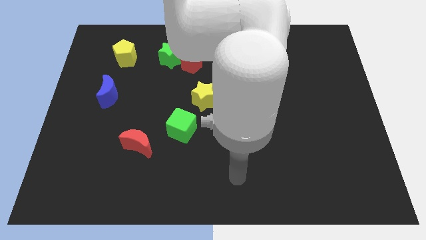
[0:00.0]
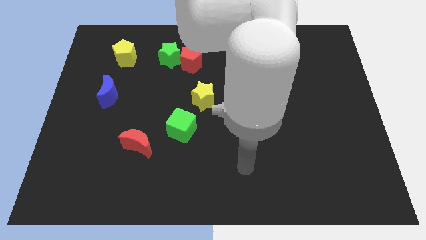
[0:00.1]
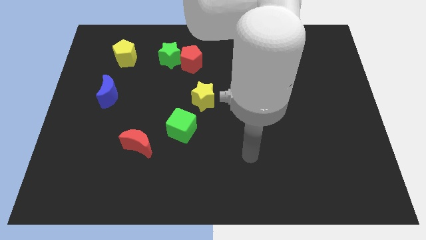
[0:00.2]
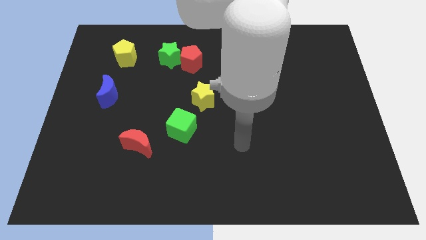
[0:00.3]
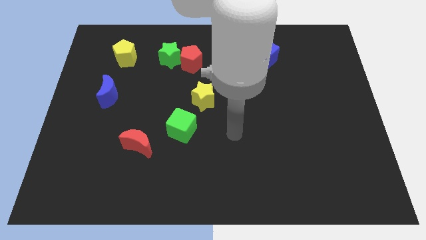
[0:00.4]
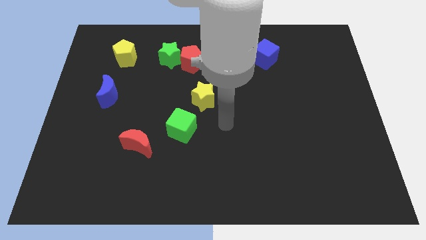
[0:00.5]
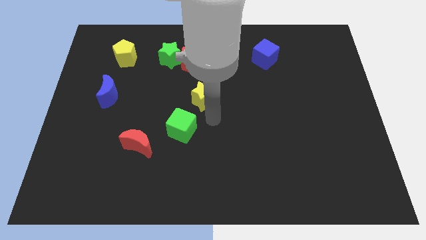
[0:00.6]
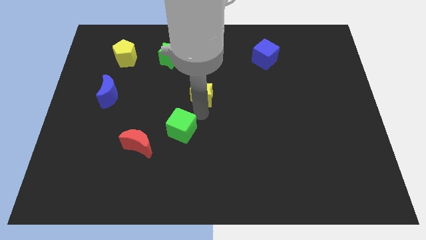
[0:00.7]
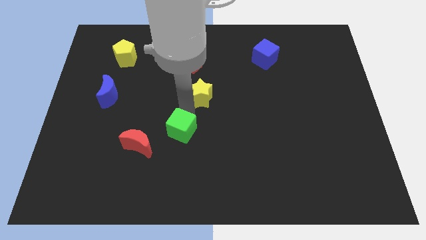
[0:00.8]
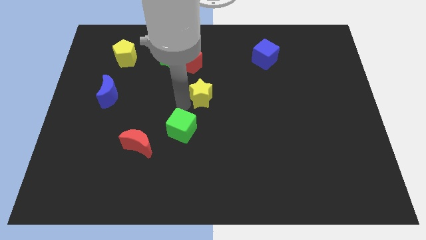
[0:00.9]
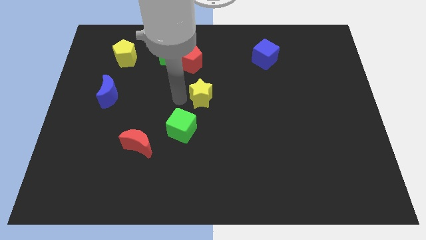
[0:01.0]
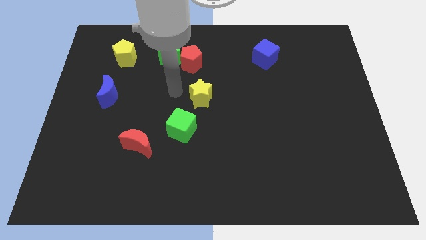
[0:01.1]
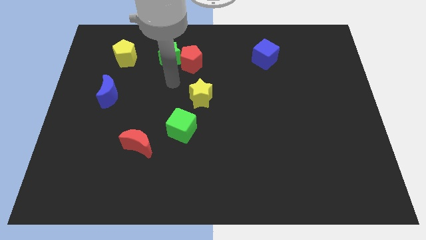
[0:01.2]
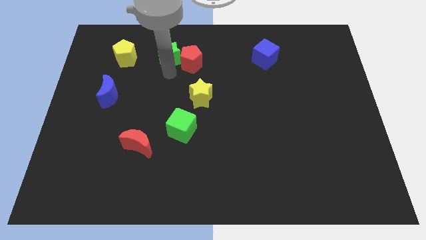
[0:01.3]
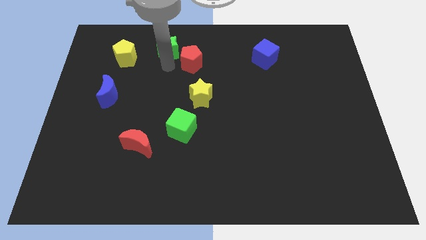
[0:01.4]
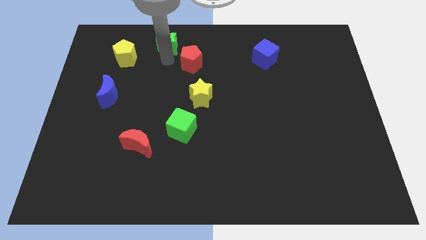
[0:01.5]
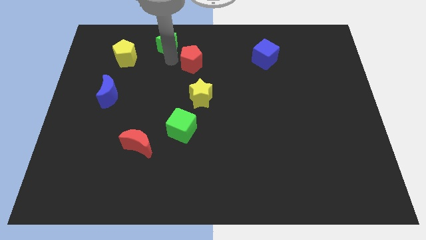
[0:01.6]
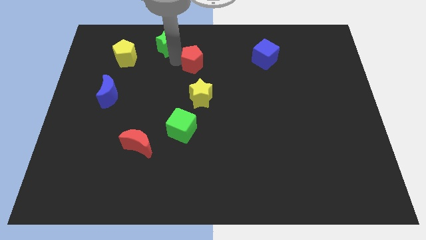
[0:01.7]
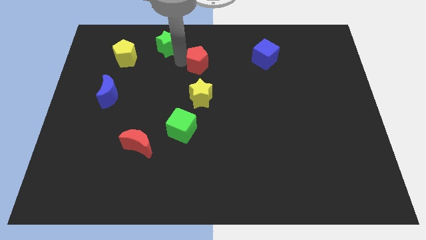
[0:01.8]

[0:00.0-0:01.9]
move the red pentagon away from the green star

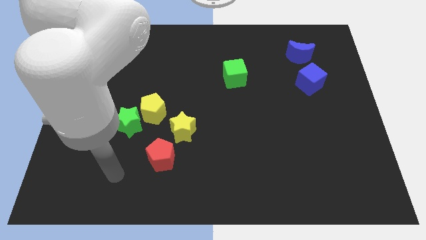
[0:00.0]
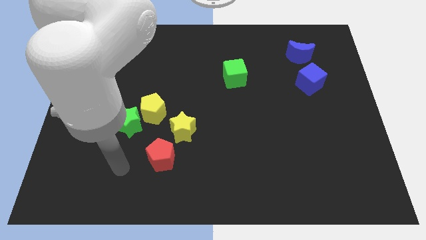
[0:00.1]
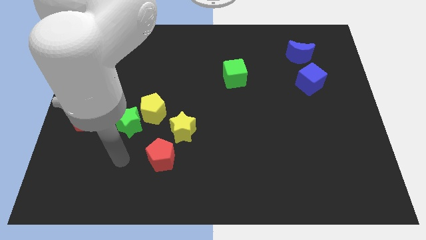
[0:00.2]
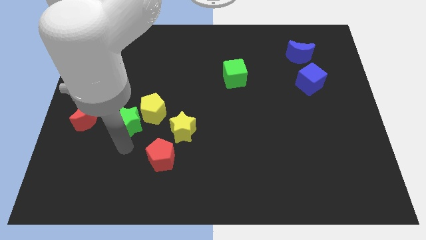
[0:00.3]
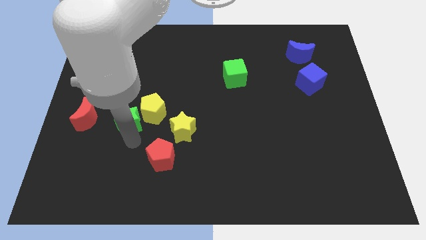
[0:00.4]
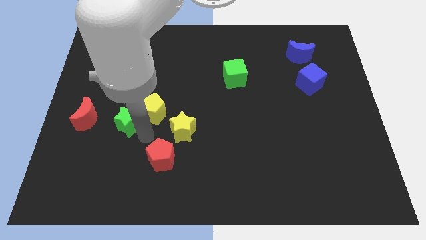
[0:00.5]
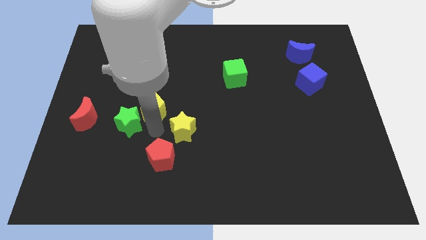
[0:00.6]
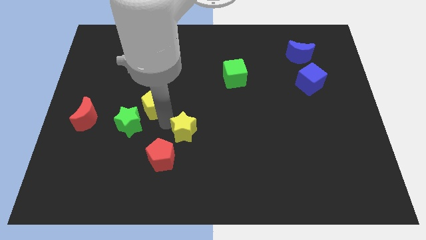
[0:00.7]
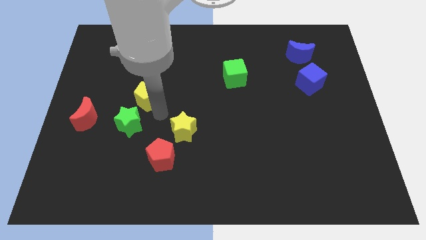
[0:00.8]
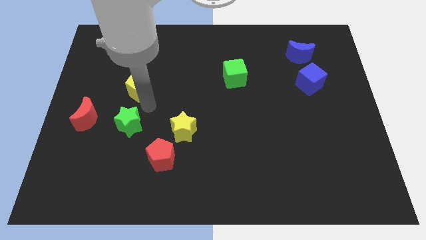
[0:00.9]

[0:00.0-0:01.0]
pull the green star apart from the yellow pentagon

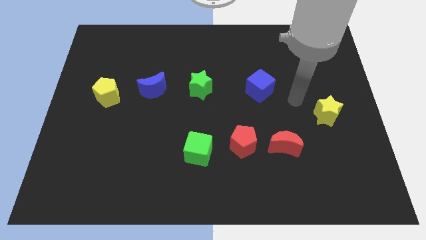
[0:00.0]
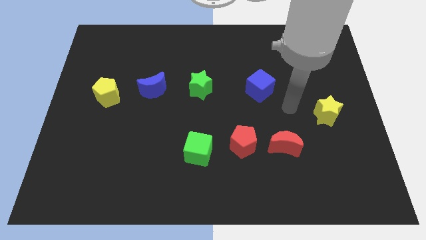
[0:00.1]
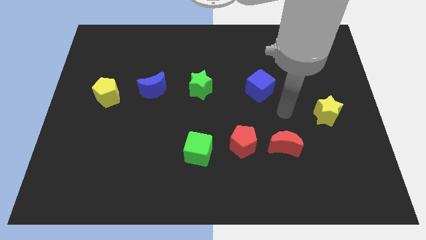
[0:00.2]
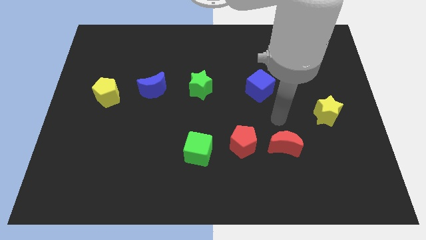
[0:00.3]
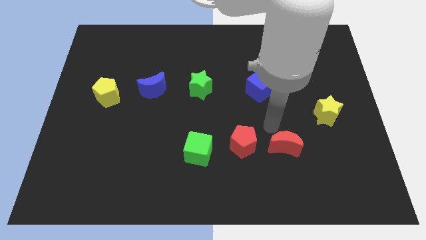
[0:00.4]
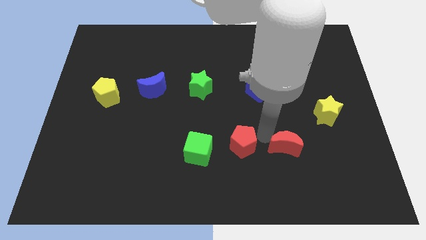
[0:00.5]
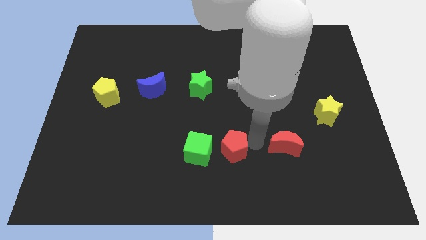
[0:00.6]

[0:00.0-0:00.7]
separate the red moon from the red pentagon

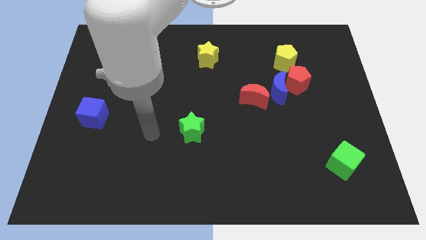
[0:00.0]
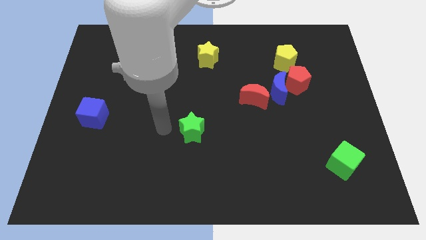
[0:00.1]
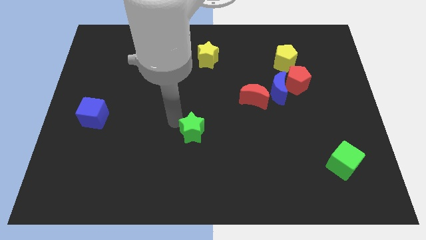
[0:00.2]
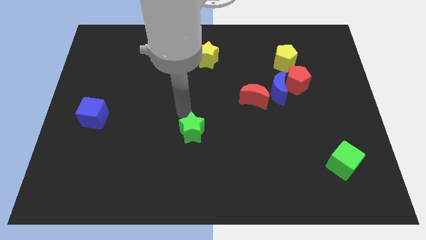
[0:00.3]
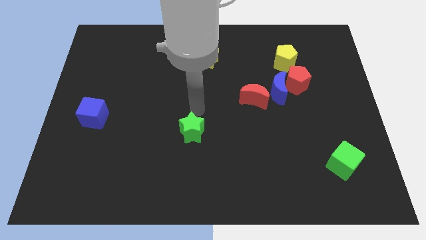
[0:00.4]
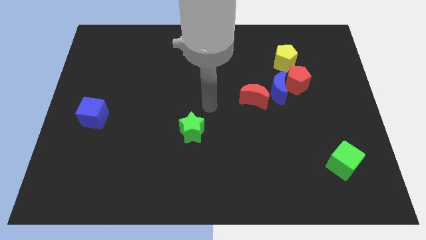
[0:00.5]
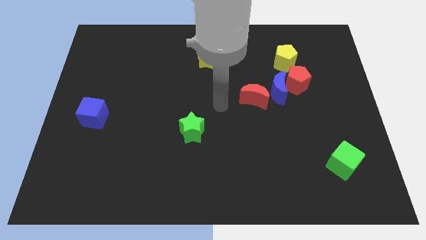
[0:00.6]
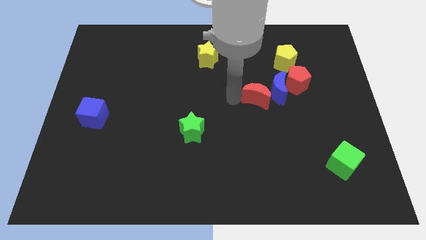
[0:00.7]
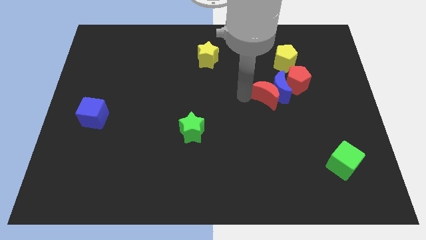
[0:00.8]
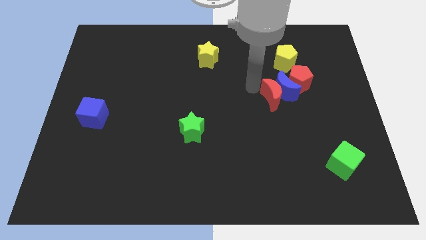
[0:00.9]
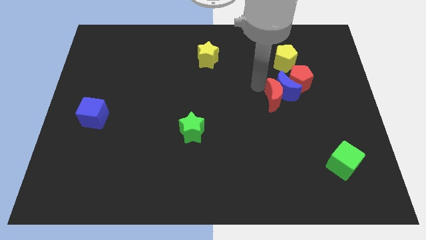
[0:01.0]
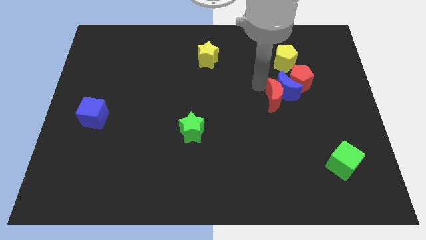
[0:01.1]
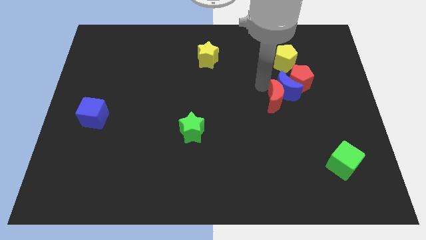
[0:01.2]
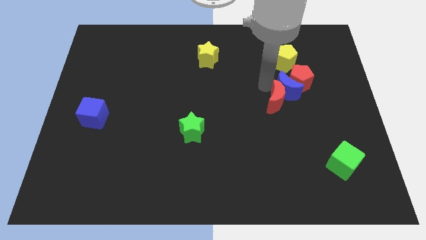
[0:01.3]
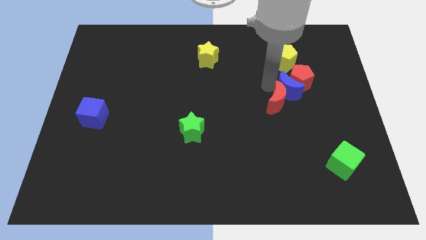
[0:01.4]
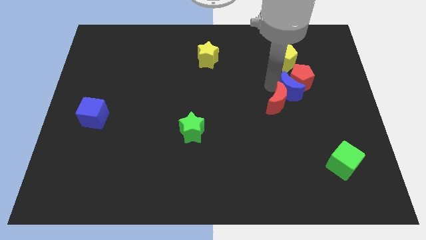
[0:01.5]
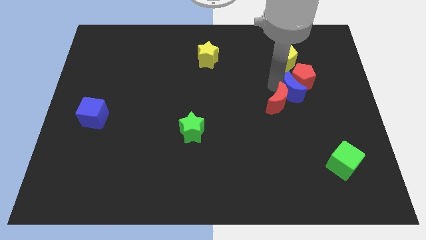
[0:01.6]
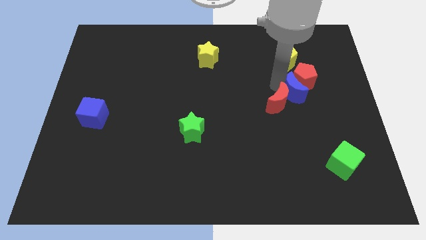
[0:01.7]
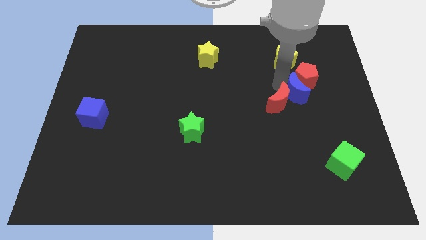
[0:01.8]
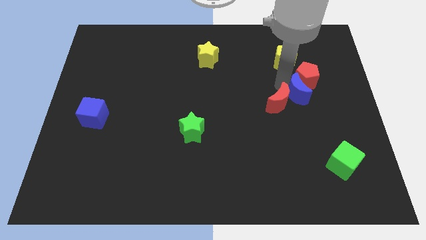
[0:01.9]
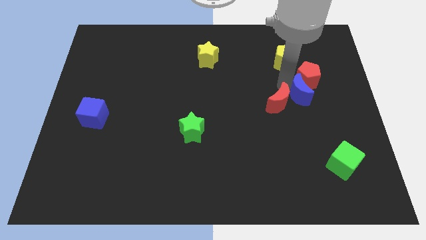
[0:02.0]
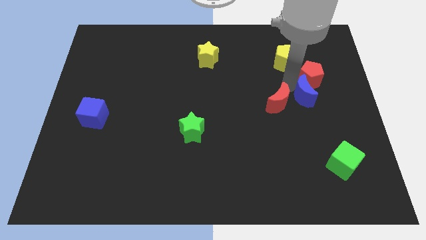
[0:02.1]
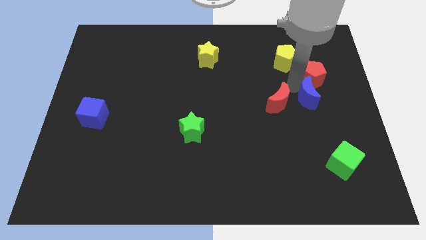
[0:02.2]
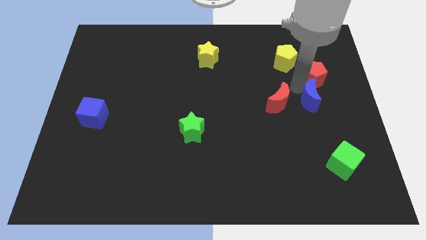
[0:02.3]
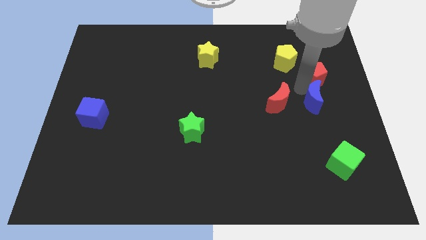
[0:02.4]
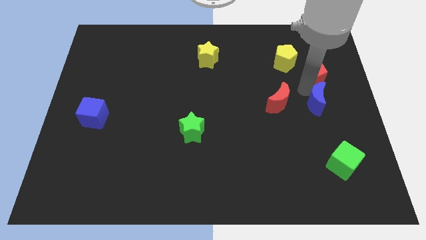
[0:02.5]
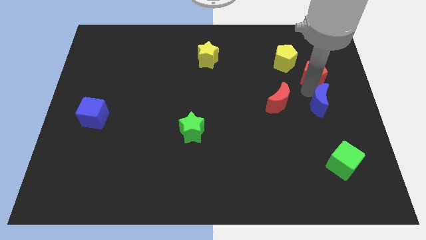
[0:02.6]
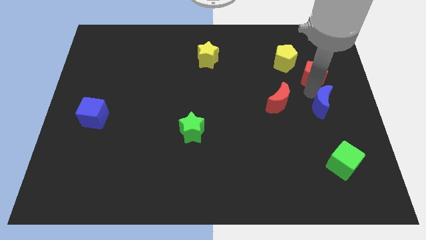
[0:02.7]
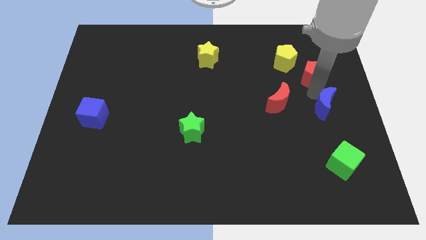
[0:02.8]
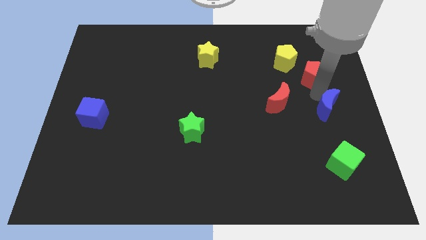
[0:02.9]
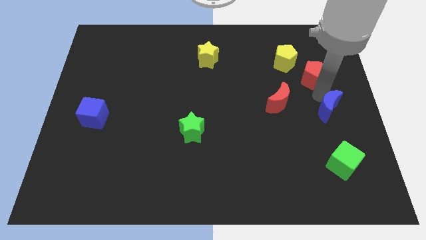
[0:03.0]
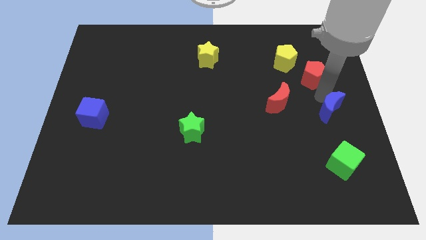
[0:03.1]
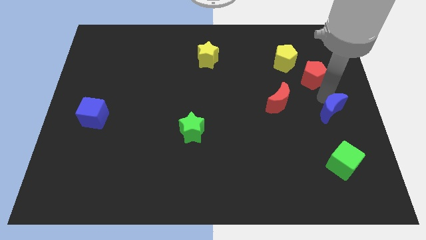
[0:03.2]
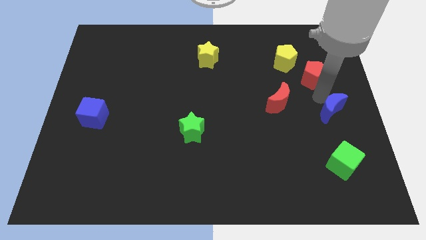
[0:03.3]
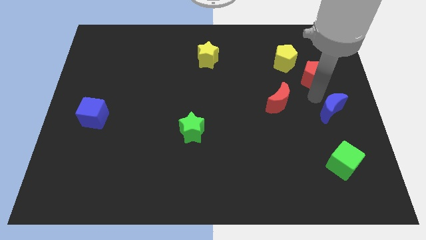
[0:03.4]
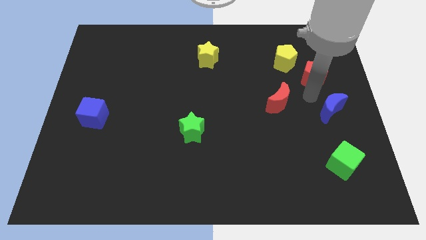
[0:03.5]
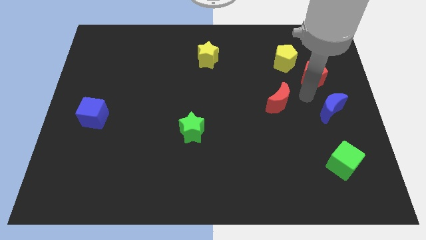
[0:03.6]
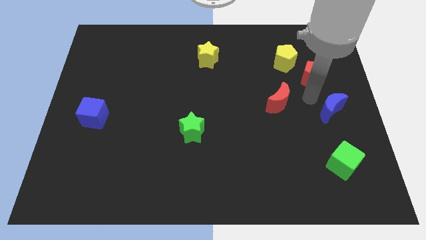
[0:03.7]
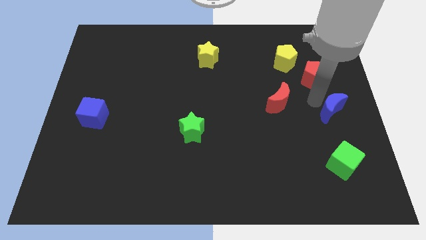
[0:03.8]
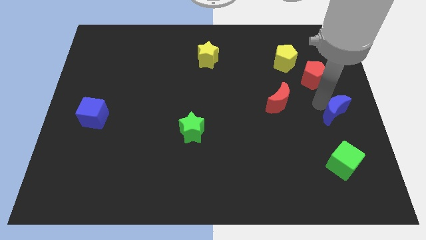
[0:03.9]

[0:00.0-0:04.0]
pull the blue moon apart from the red pentagon and red moon

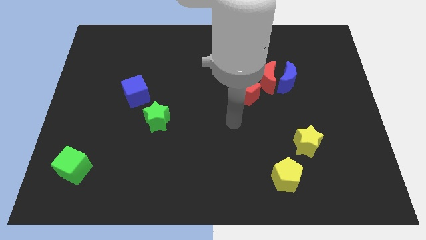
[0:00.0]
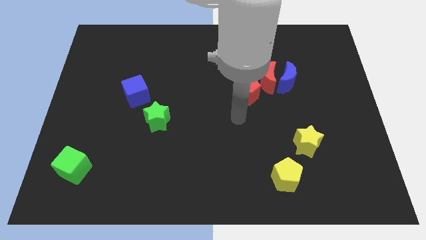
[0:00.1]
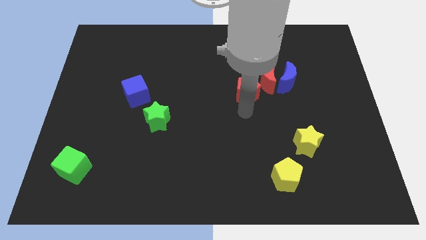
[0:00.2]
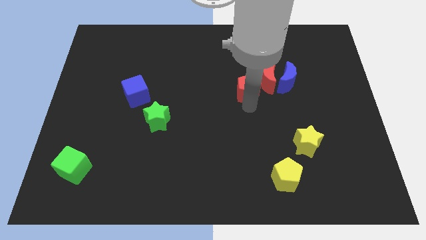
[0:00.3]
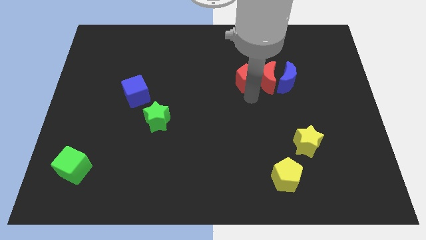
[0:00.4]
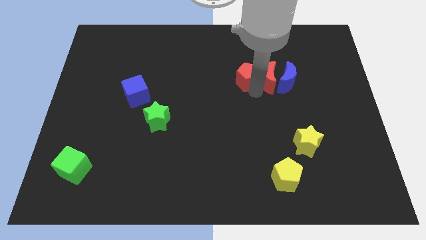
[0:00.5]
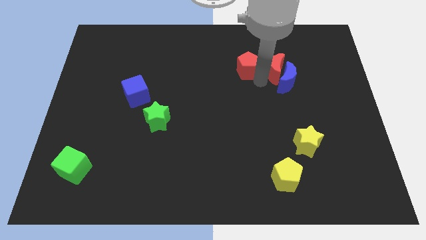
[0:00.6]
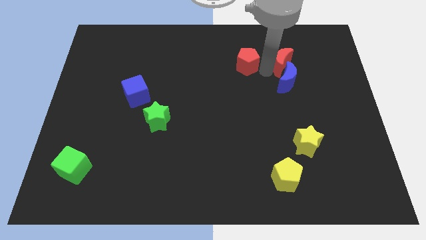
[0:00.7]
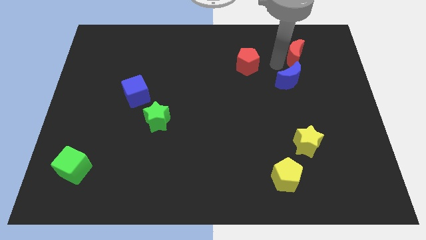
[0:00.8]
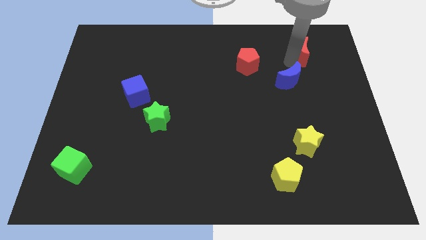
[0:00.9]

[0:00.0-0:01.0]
separate the blue moon from the red moon

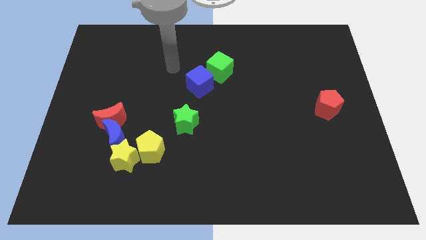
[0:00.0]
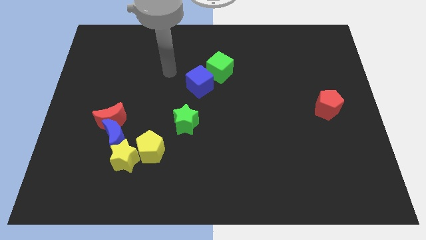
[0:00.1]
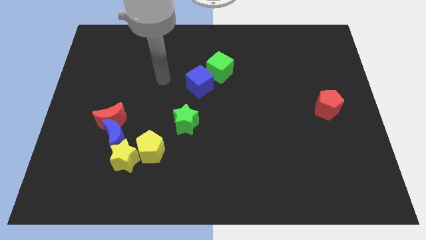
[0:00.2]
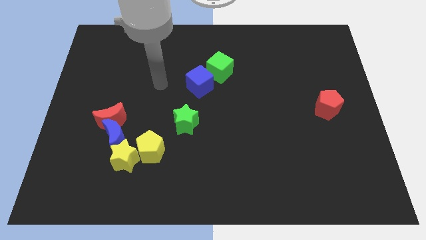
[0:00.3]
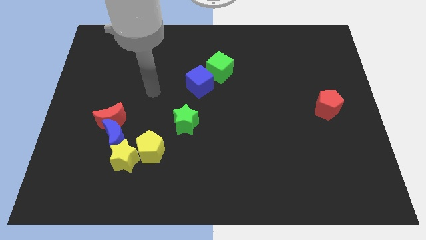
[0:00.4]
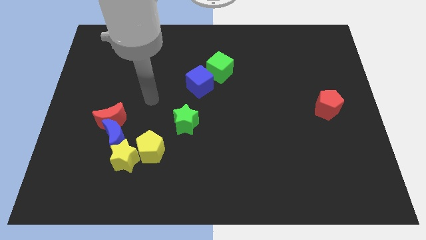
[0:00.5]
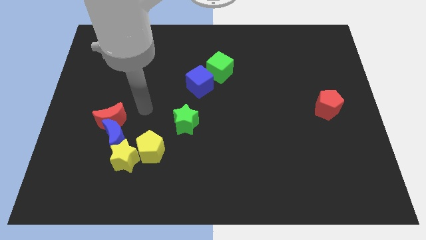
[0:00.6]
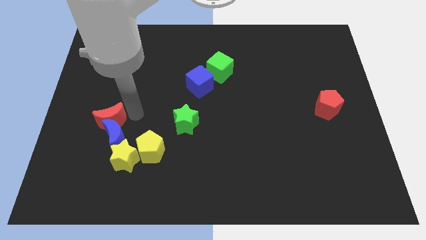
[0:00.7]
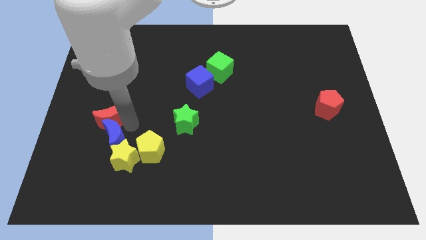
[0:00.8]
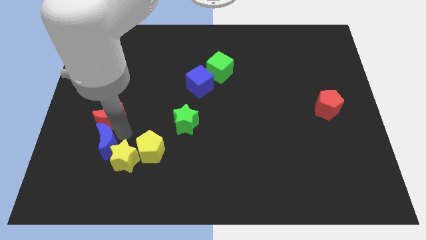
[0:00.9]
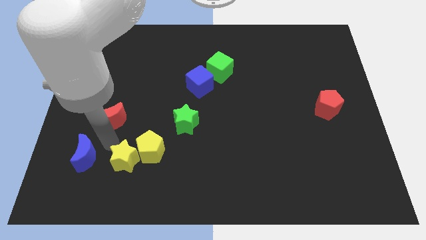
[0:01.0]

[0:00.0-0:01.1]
move the red moon away from the blue moon
